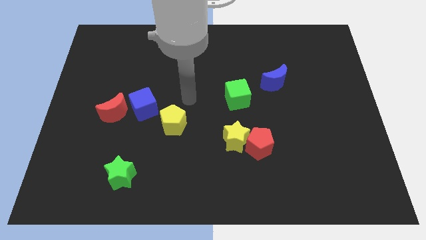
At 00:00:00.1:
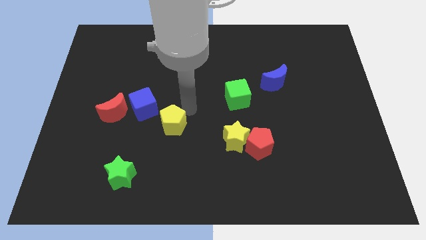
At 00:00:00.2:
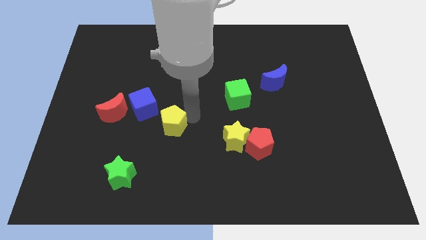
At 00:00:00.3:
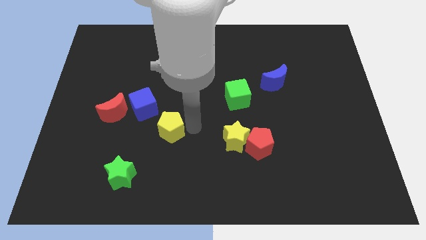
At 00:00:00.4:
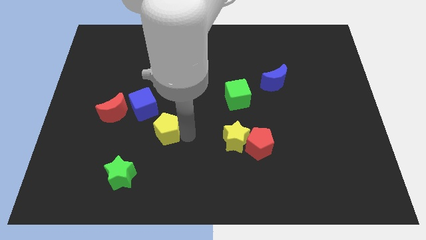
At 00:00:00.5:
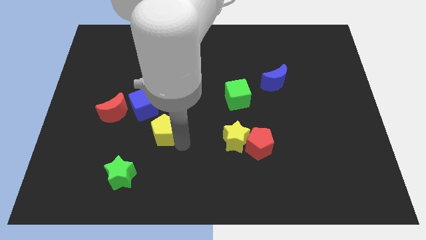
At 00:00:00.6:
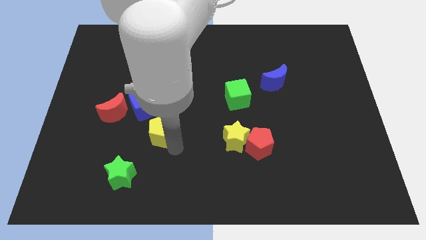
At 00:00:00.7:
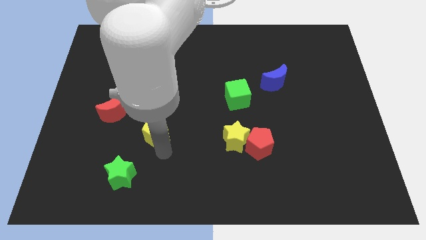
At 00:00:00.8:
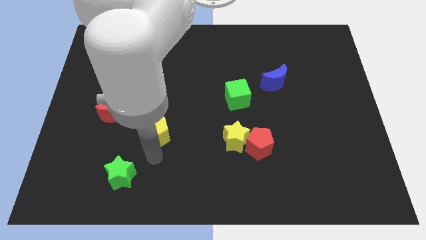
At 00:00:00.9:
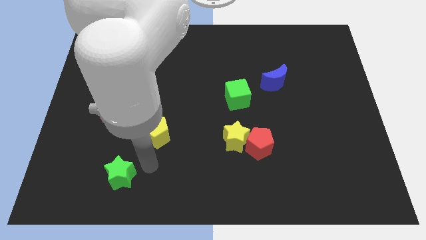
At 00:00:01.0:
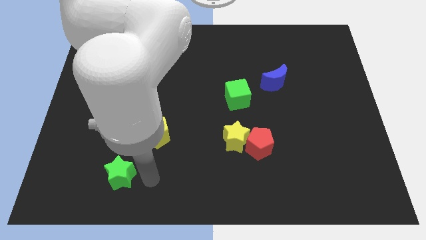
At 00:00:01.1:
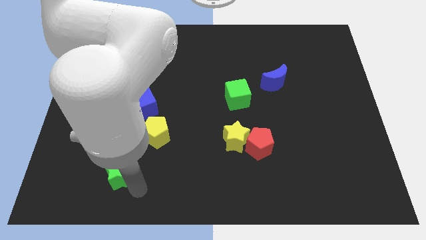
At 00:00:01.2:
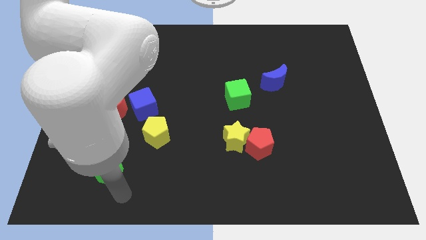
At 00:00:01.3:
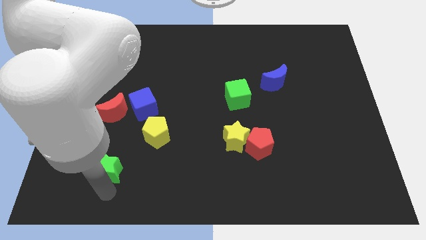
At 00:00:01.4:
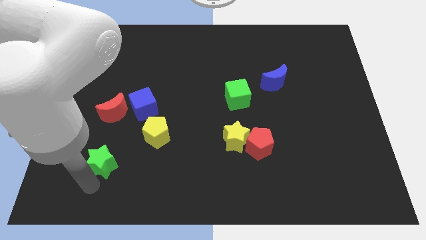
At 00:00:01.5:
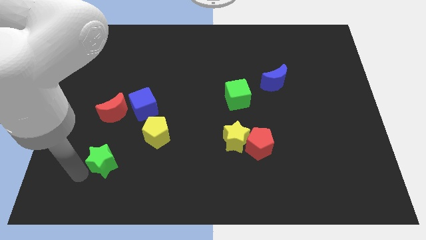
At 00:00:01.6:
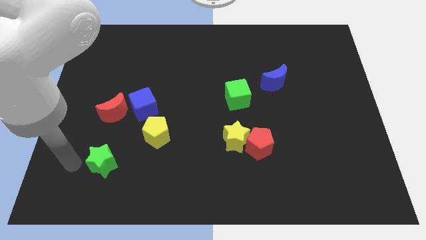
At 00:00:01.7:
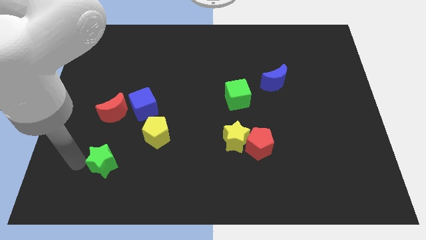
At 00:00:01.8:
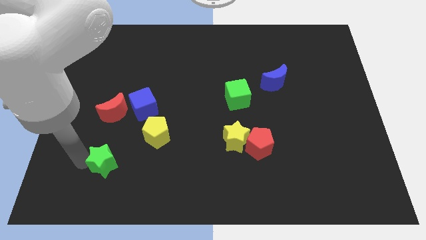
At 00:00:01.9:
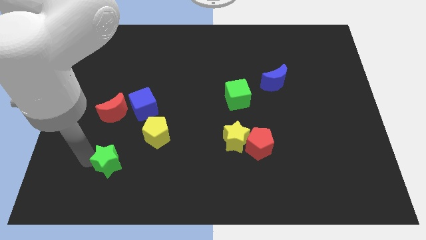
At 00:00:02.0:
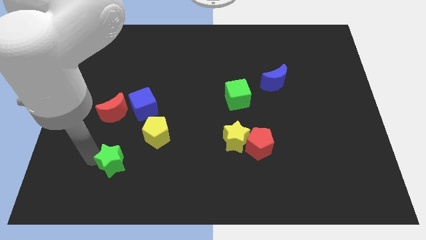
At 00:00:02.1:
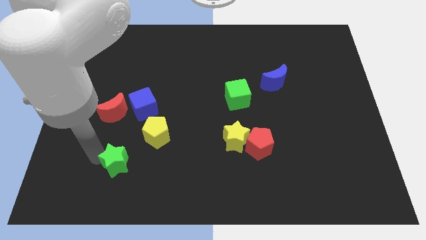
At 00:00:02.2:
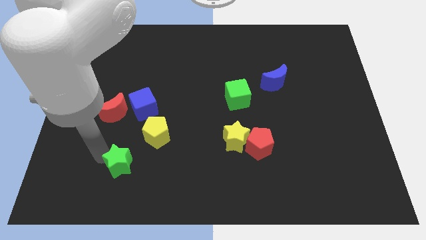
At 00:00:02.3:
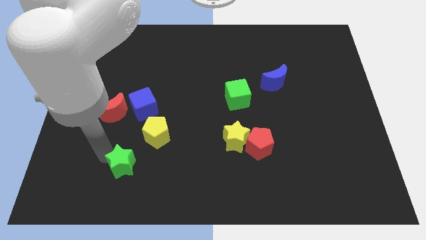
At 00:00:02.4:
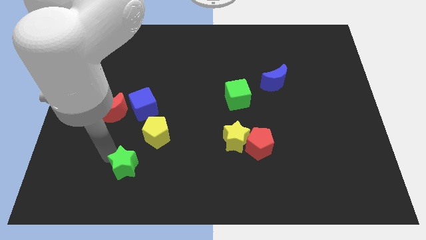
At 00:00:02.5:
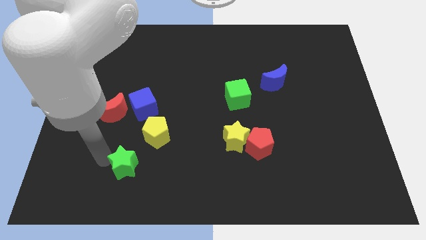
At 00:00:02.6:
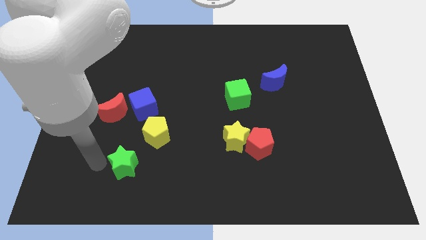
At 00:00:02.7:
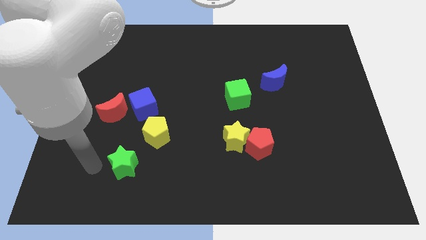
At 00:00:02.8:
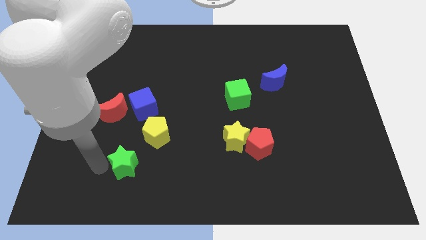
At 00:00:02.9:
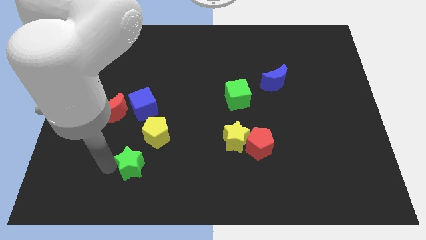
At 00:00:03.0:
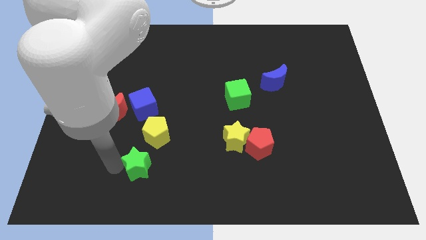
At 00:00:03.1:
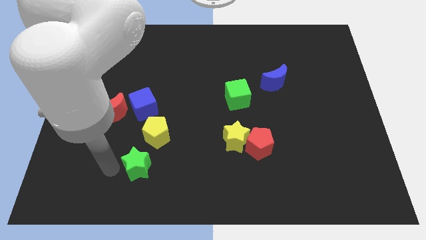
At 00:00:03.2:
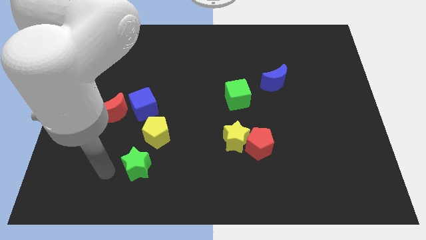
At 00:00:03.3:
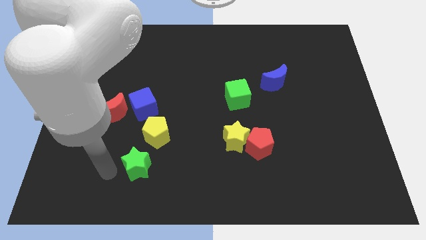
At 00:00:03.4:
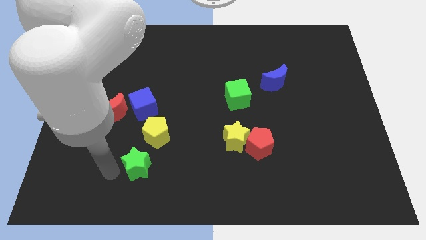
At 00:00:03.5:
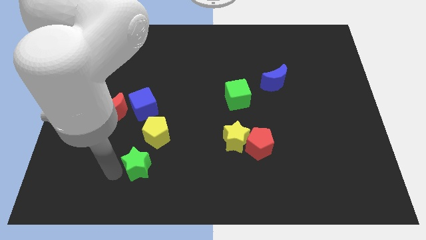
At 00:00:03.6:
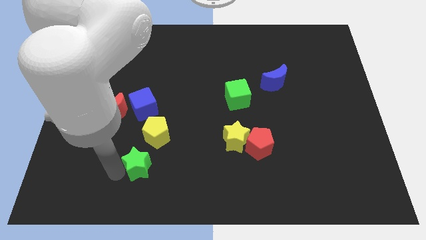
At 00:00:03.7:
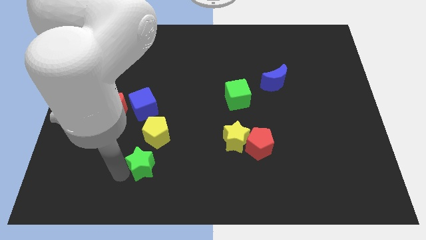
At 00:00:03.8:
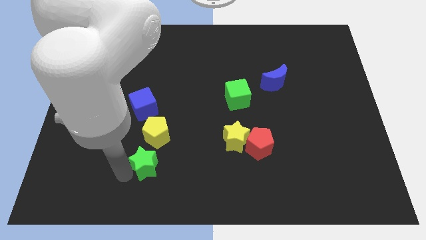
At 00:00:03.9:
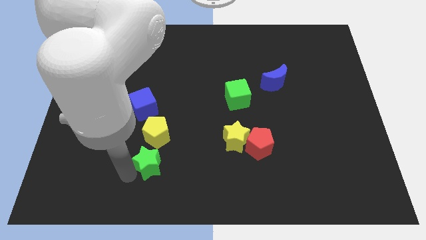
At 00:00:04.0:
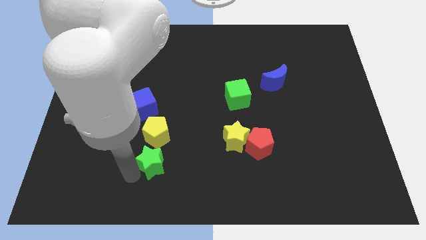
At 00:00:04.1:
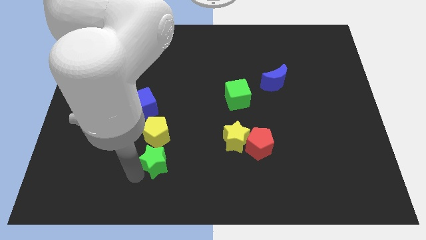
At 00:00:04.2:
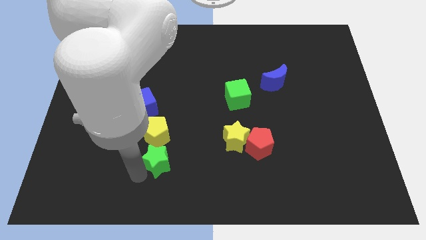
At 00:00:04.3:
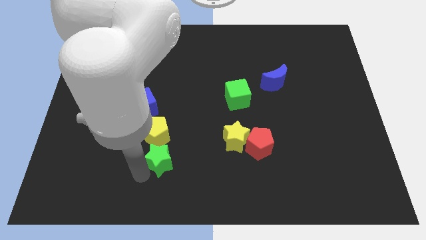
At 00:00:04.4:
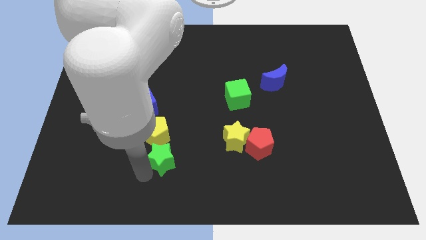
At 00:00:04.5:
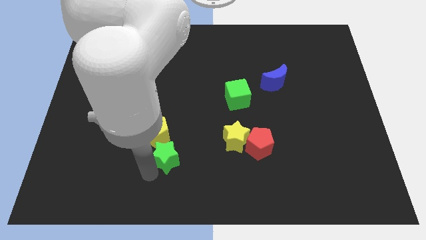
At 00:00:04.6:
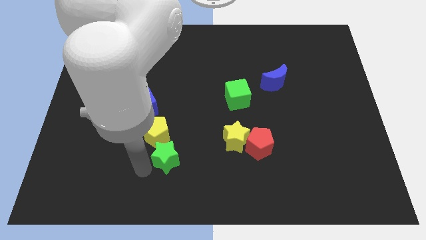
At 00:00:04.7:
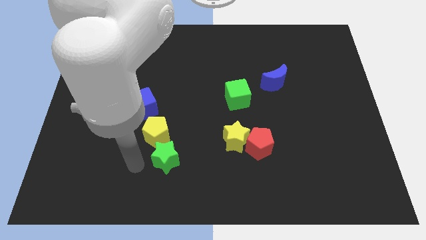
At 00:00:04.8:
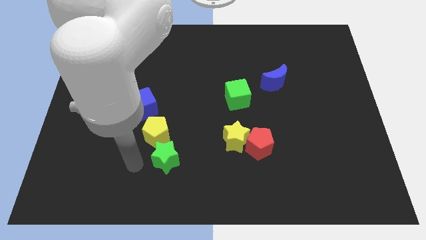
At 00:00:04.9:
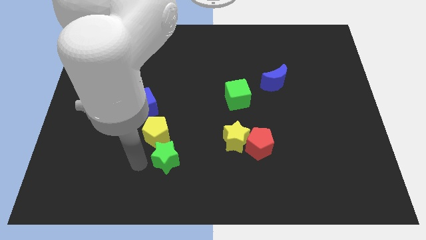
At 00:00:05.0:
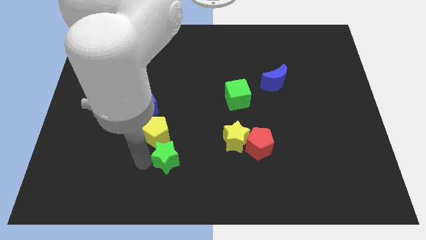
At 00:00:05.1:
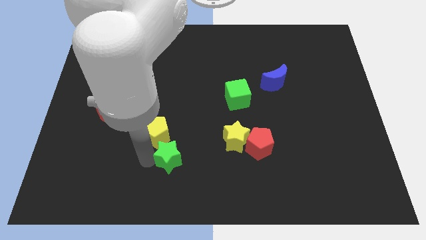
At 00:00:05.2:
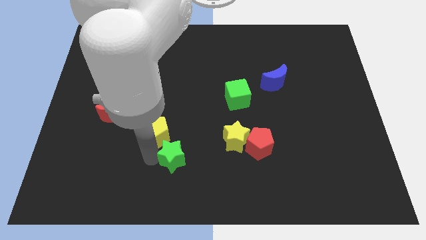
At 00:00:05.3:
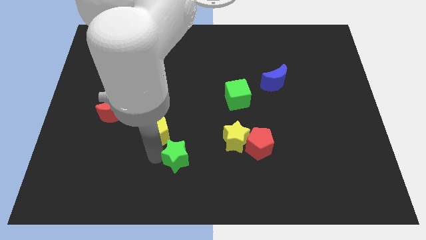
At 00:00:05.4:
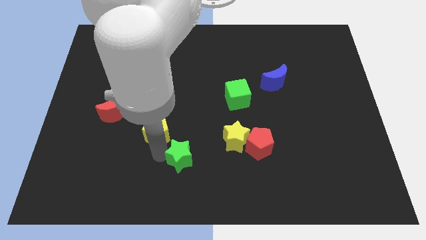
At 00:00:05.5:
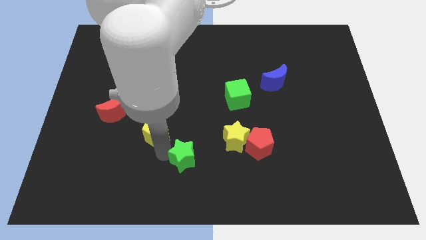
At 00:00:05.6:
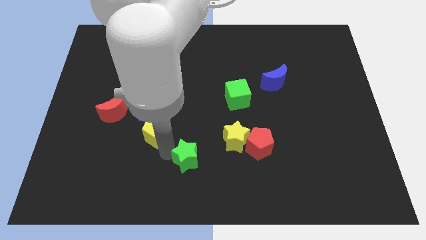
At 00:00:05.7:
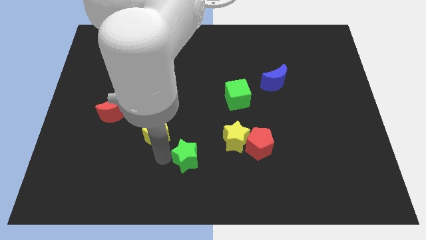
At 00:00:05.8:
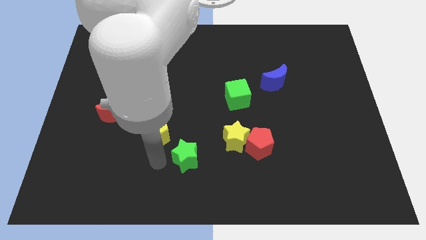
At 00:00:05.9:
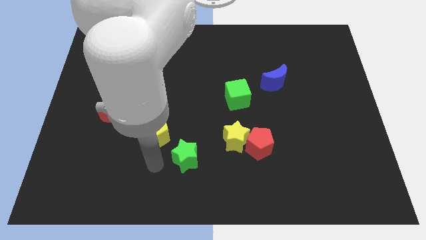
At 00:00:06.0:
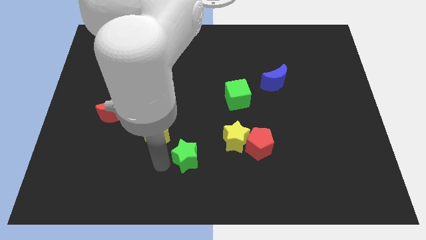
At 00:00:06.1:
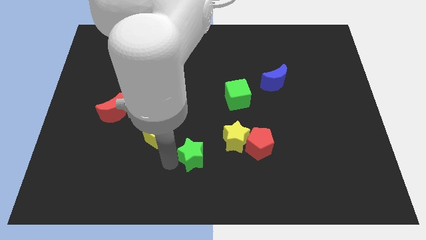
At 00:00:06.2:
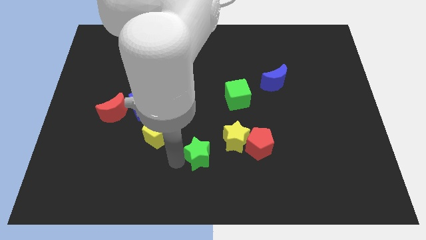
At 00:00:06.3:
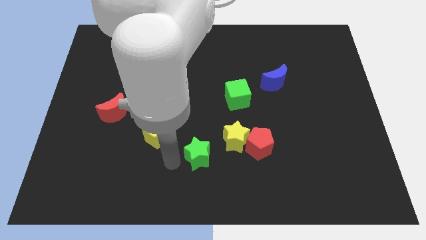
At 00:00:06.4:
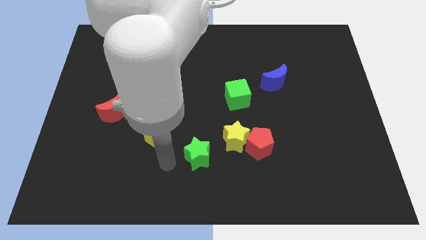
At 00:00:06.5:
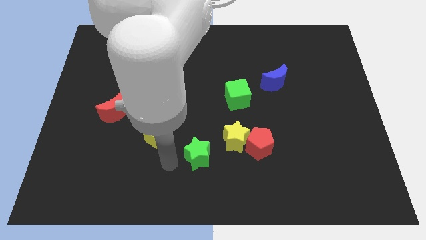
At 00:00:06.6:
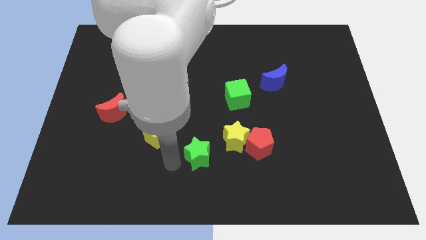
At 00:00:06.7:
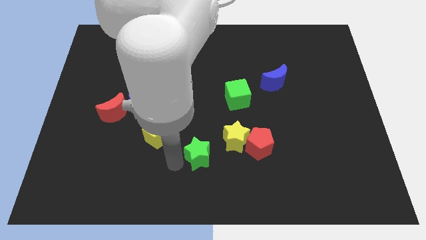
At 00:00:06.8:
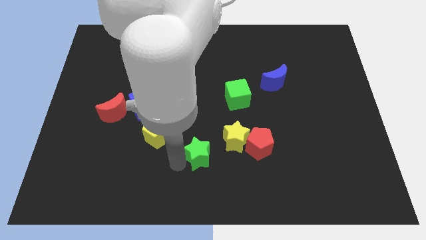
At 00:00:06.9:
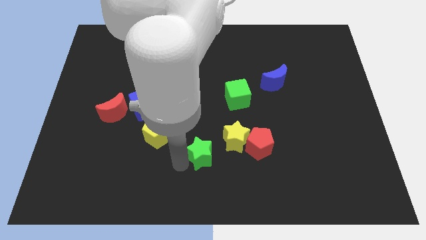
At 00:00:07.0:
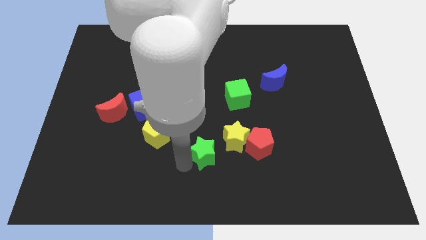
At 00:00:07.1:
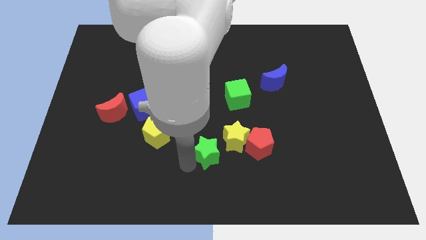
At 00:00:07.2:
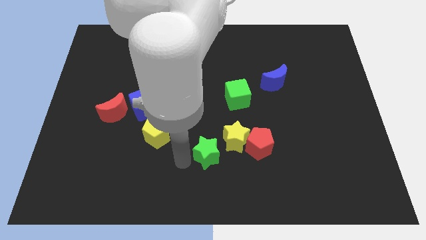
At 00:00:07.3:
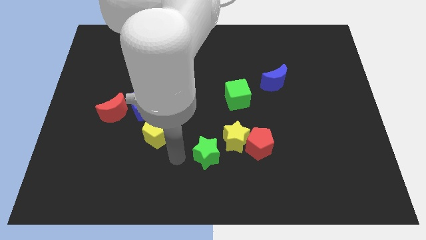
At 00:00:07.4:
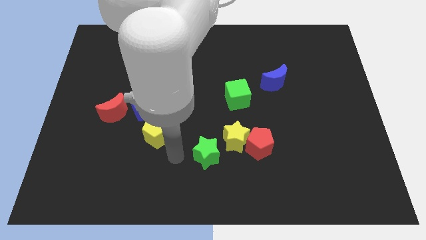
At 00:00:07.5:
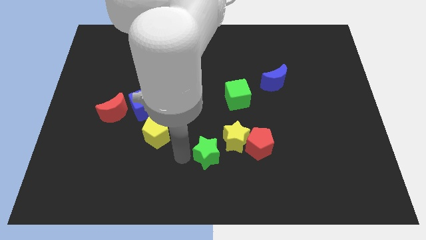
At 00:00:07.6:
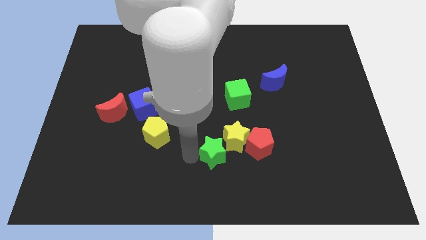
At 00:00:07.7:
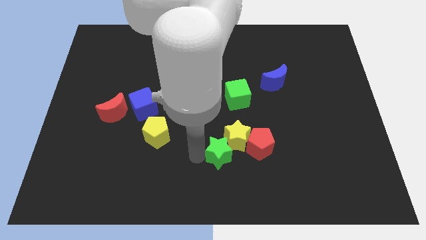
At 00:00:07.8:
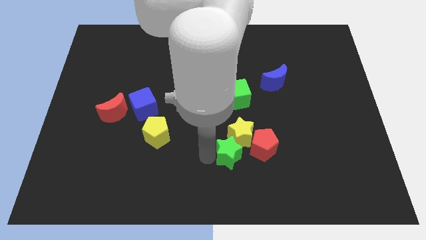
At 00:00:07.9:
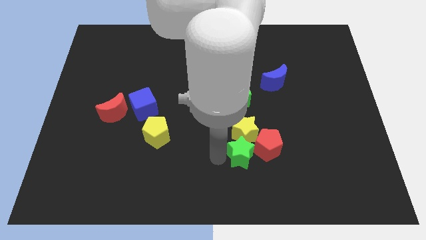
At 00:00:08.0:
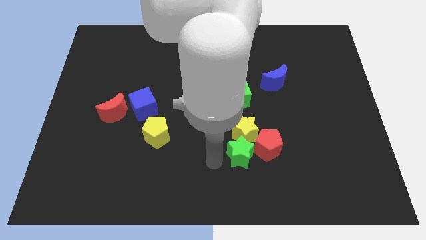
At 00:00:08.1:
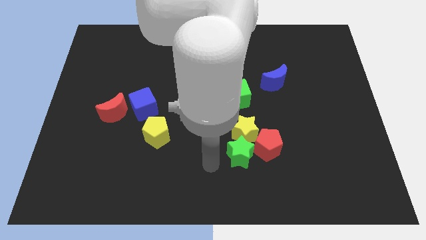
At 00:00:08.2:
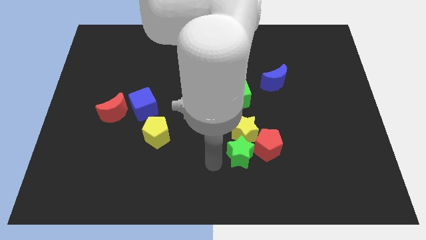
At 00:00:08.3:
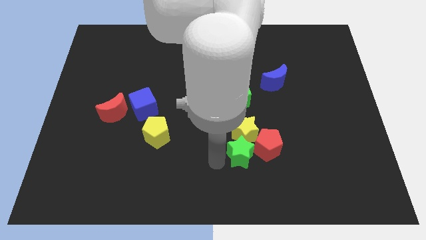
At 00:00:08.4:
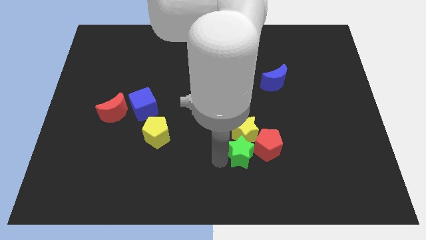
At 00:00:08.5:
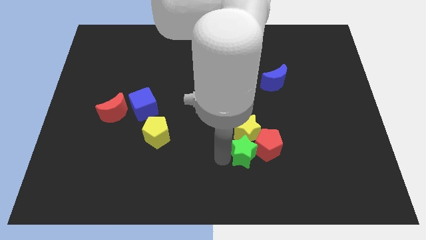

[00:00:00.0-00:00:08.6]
slide the green star towards the red pentagon
